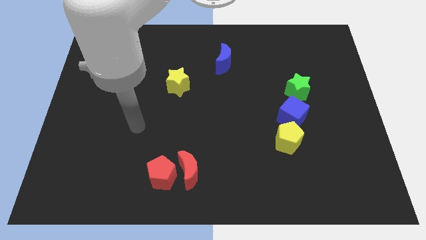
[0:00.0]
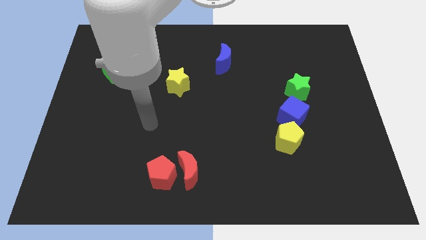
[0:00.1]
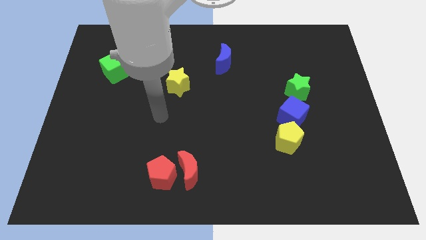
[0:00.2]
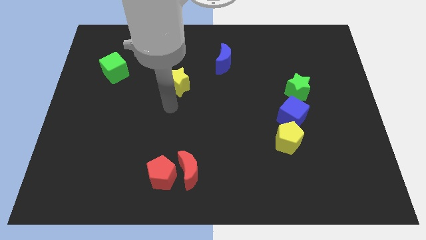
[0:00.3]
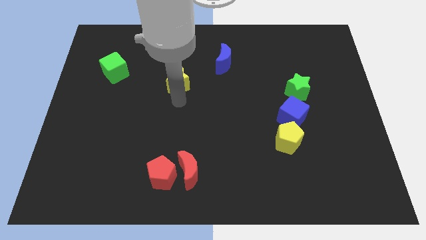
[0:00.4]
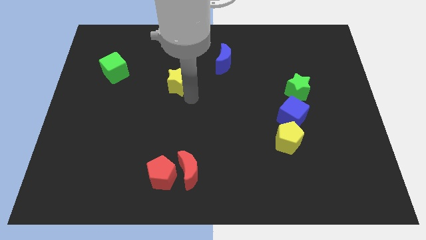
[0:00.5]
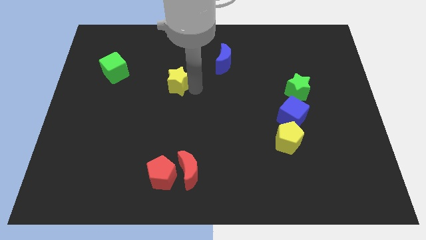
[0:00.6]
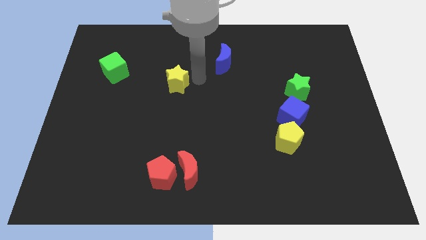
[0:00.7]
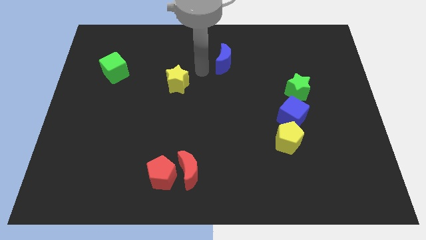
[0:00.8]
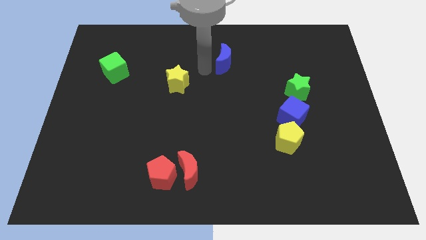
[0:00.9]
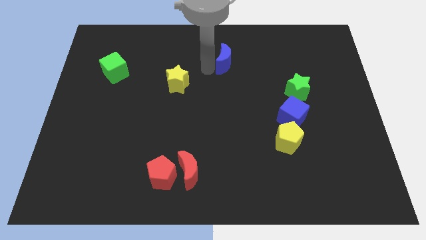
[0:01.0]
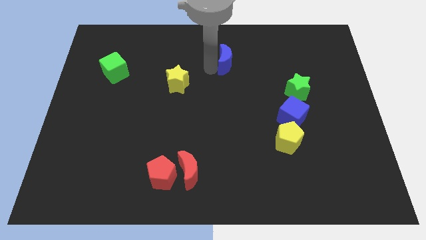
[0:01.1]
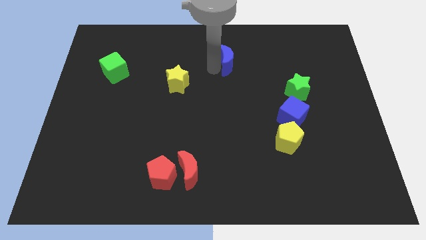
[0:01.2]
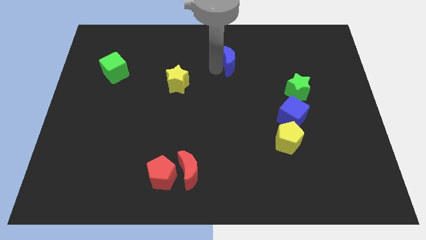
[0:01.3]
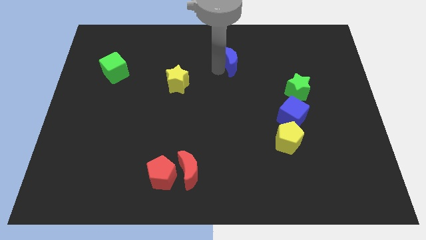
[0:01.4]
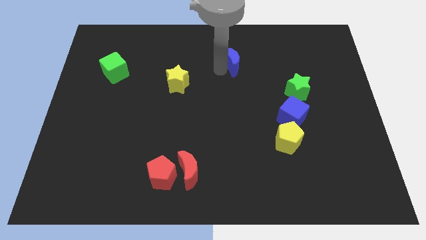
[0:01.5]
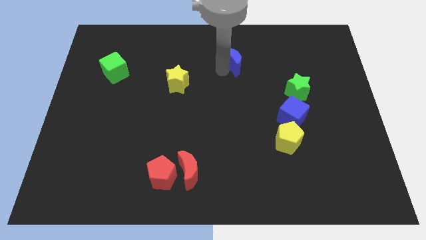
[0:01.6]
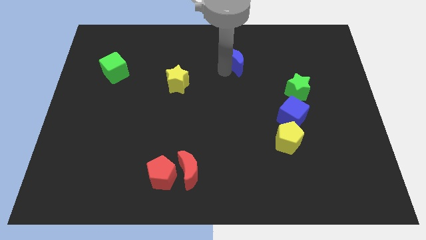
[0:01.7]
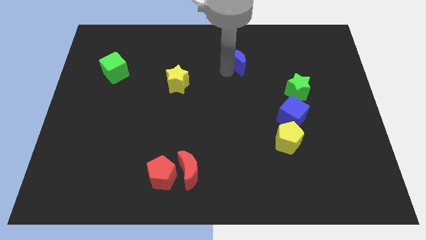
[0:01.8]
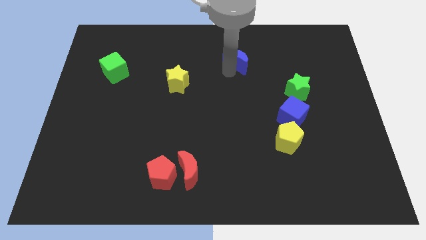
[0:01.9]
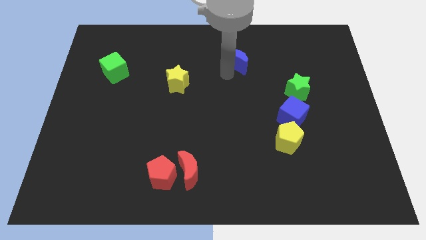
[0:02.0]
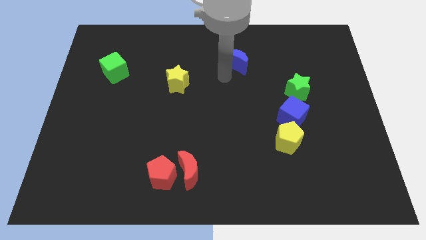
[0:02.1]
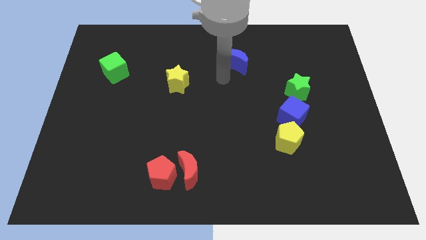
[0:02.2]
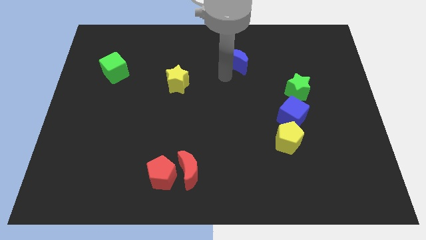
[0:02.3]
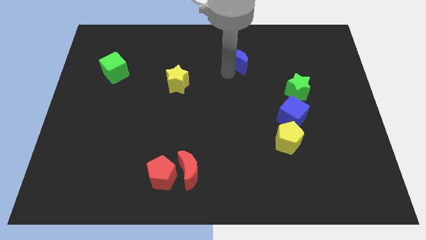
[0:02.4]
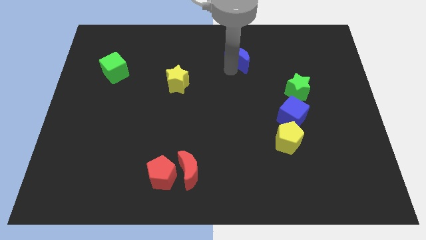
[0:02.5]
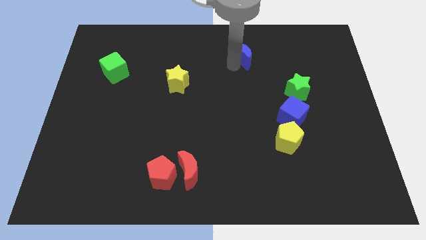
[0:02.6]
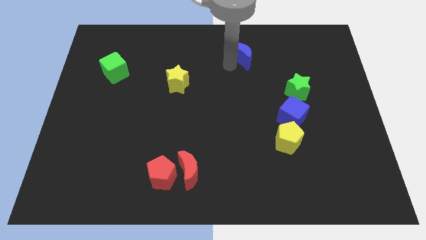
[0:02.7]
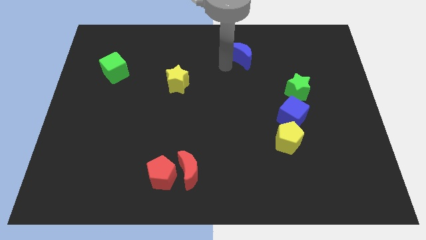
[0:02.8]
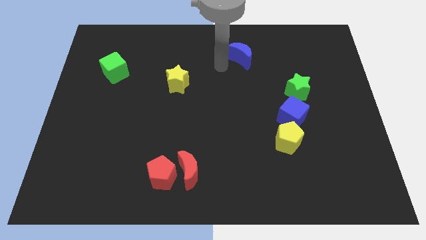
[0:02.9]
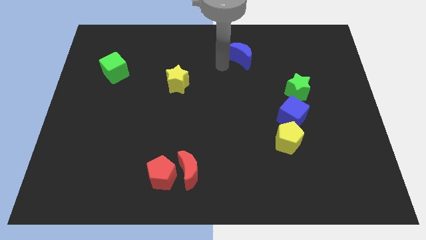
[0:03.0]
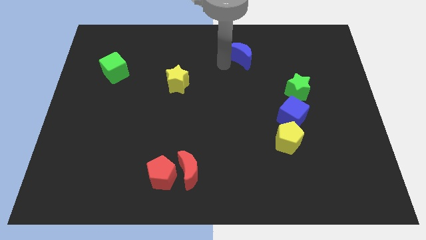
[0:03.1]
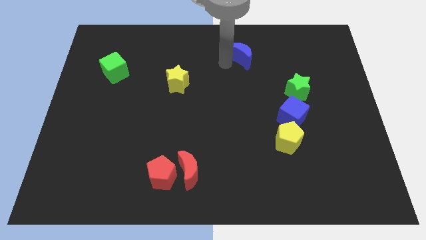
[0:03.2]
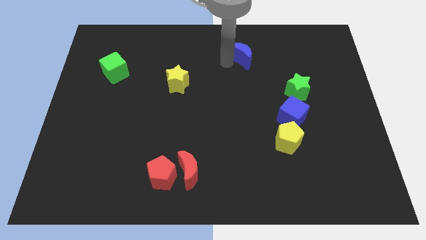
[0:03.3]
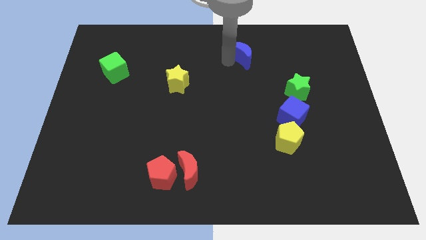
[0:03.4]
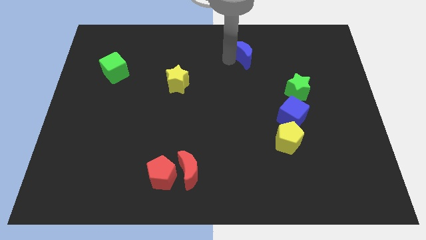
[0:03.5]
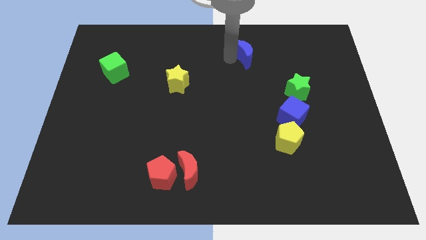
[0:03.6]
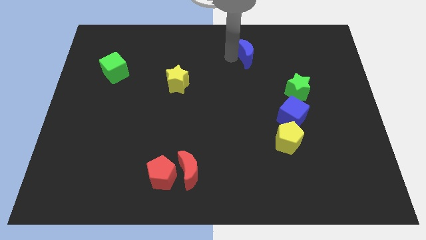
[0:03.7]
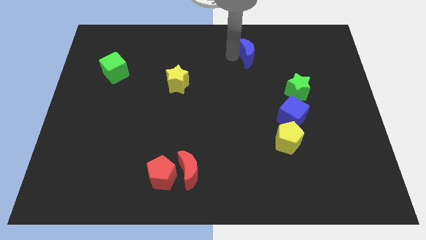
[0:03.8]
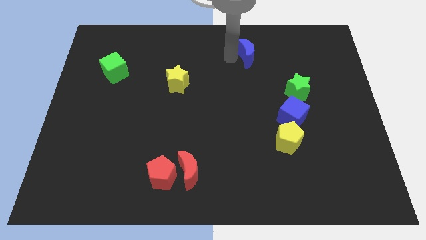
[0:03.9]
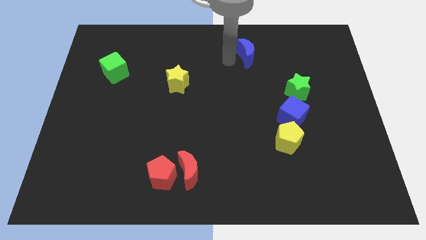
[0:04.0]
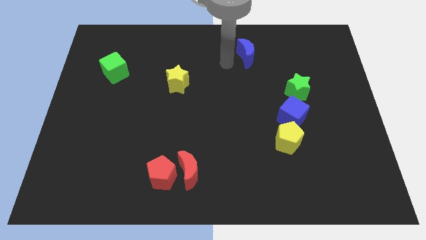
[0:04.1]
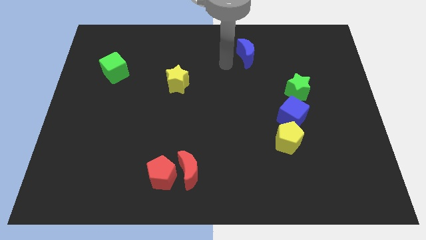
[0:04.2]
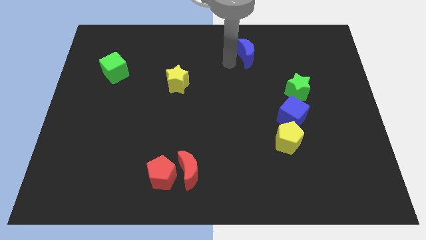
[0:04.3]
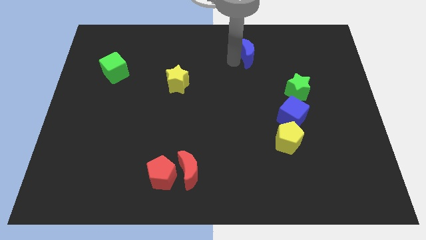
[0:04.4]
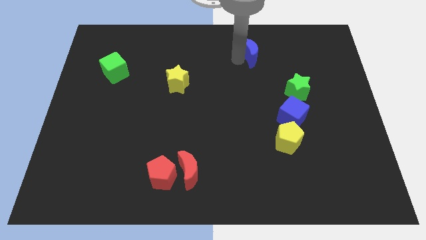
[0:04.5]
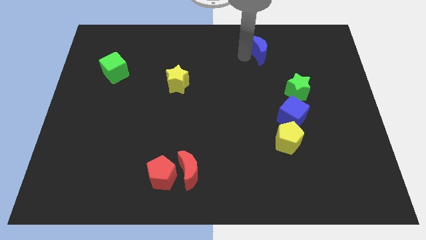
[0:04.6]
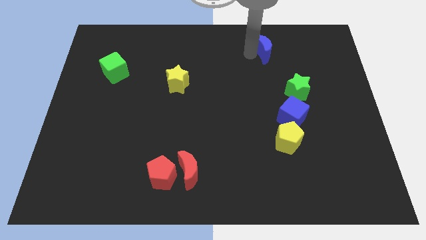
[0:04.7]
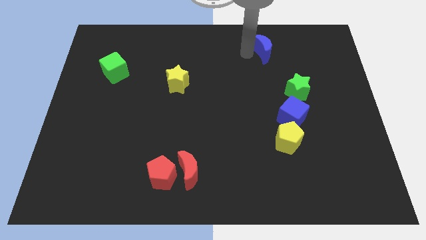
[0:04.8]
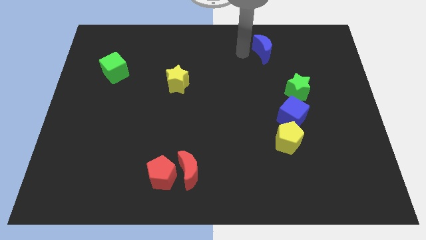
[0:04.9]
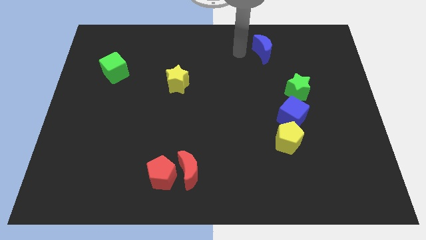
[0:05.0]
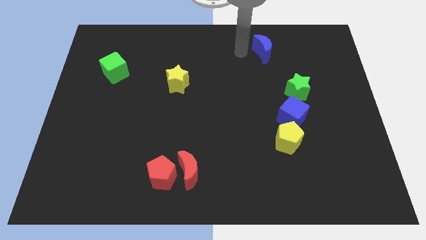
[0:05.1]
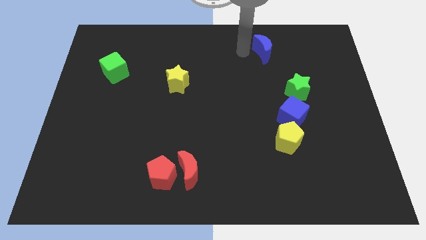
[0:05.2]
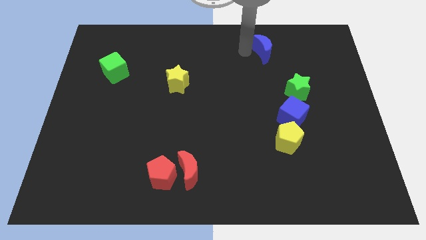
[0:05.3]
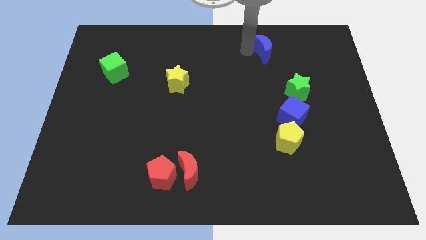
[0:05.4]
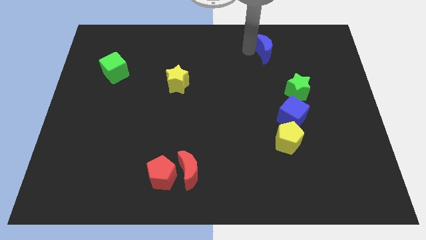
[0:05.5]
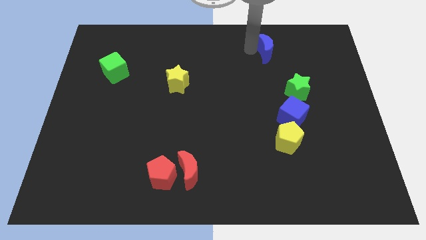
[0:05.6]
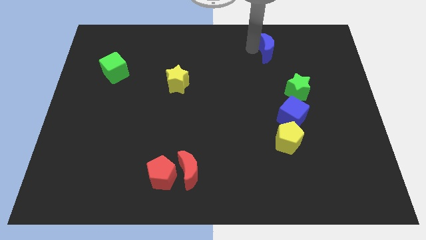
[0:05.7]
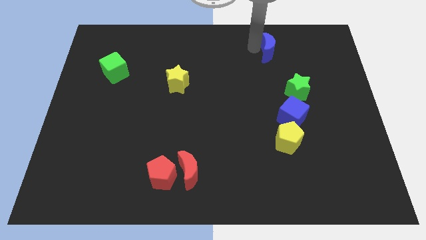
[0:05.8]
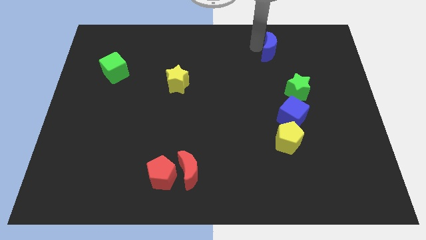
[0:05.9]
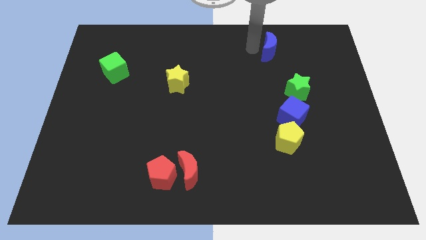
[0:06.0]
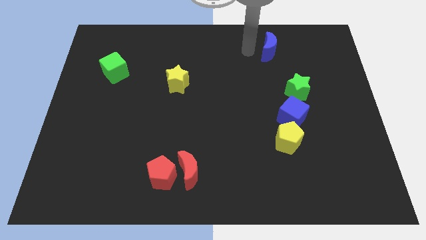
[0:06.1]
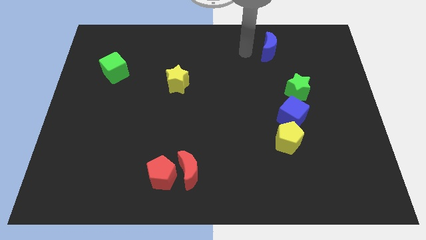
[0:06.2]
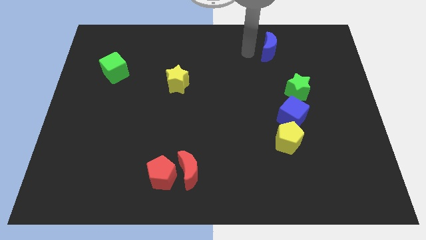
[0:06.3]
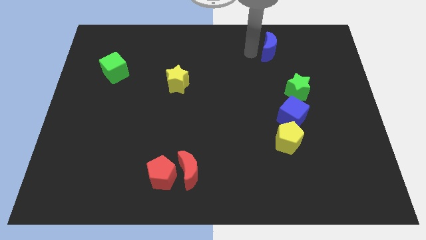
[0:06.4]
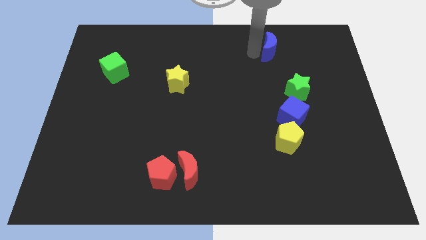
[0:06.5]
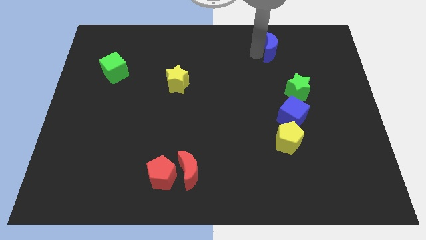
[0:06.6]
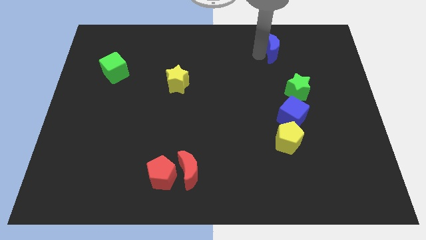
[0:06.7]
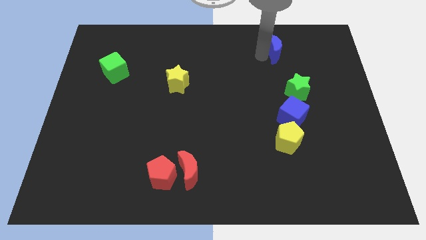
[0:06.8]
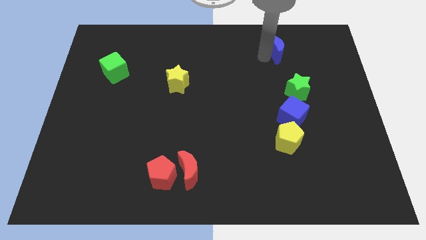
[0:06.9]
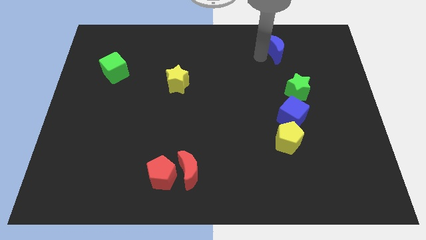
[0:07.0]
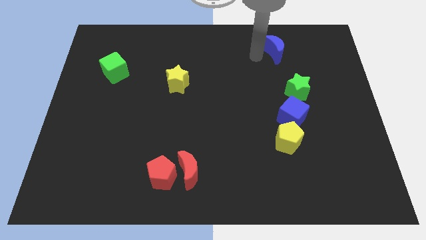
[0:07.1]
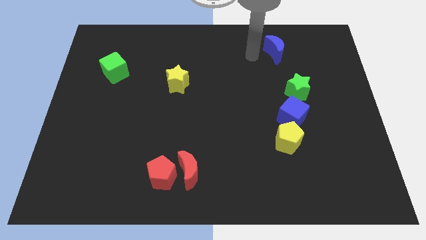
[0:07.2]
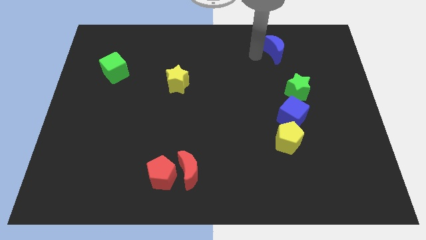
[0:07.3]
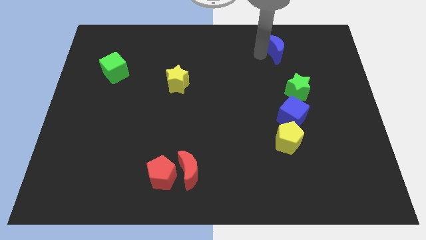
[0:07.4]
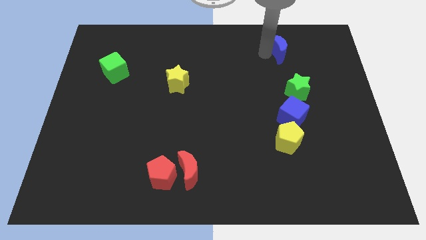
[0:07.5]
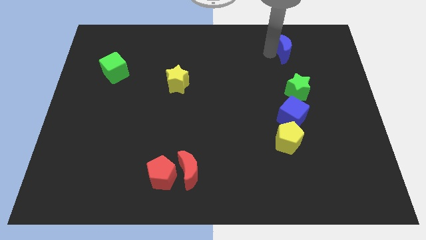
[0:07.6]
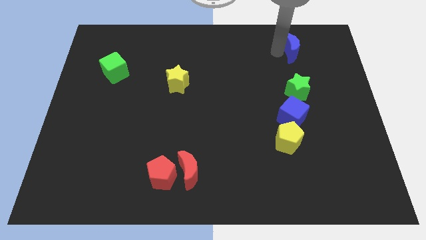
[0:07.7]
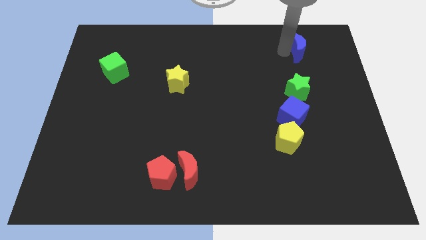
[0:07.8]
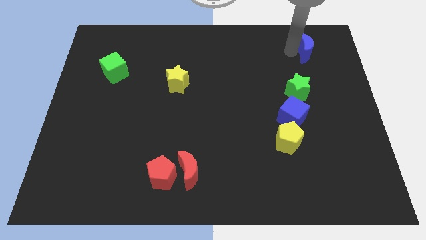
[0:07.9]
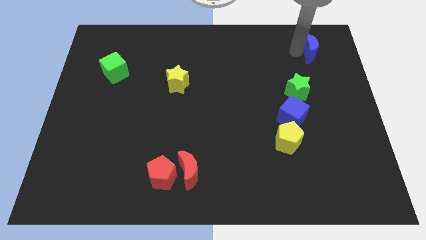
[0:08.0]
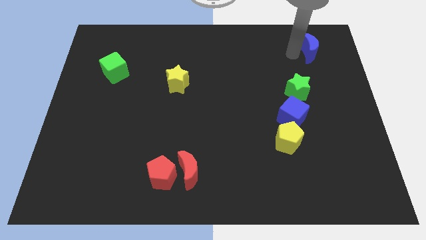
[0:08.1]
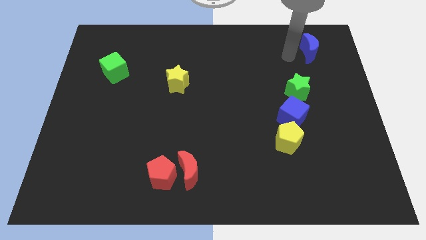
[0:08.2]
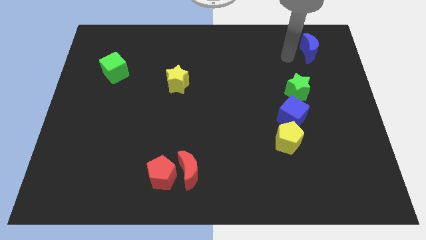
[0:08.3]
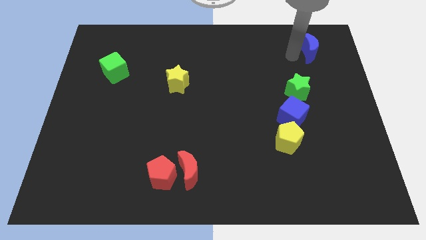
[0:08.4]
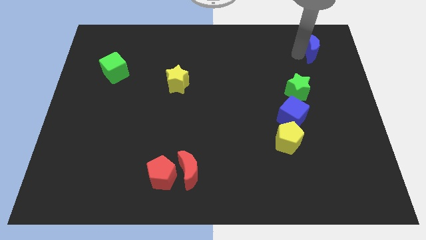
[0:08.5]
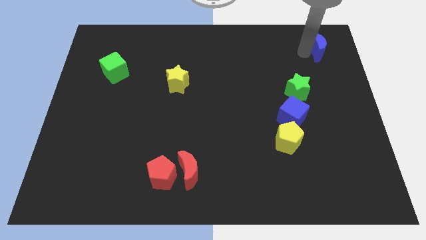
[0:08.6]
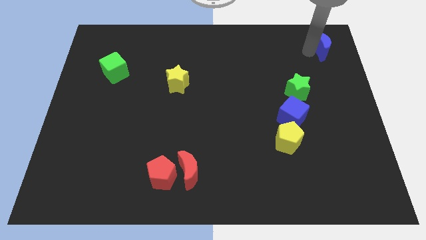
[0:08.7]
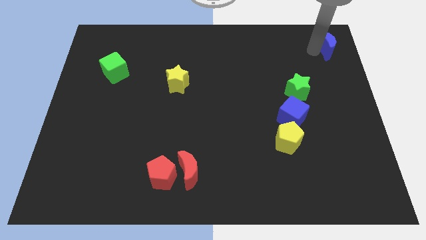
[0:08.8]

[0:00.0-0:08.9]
put the blue moon to the top right of the board
